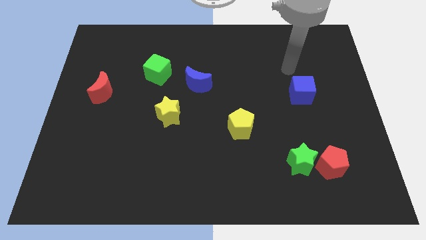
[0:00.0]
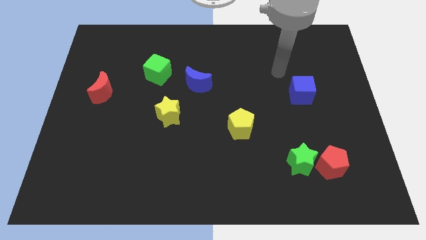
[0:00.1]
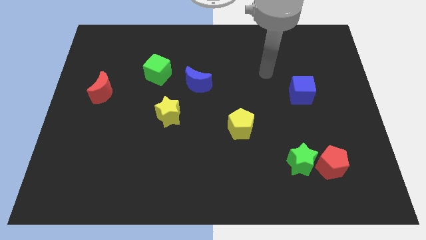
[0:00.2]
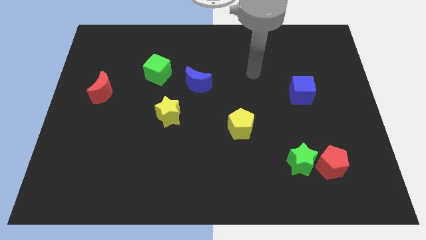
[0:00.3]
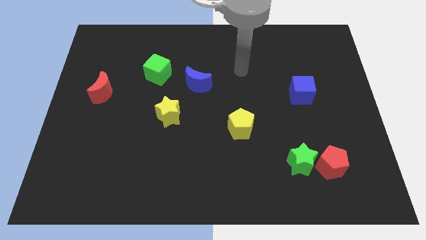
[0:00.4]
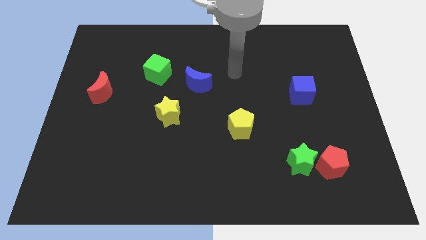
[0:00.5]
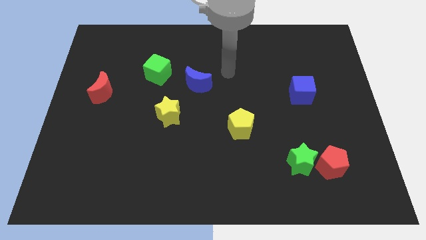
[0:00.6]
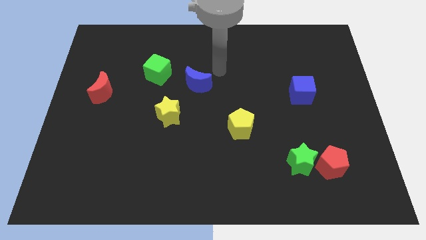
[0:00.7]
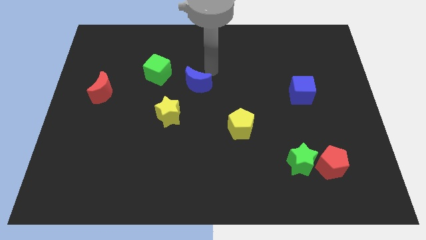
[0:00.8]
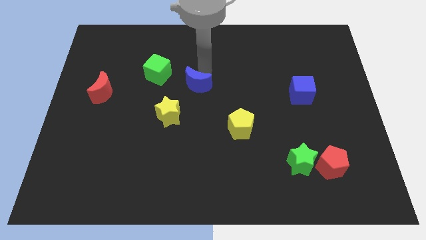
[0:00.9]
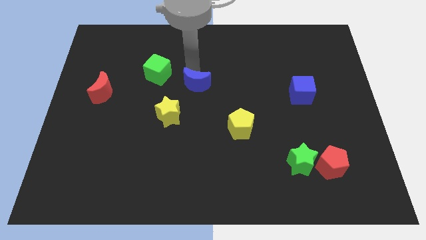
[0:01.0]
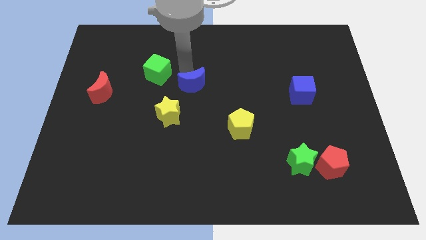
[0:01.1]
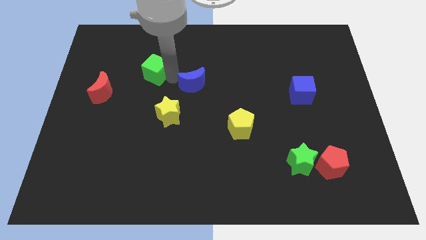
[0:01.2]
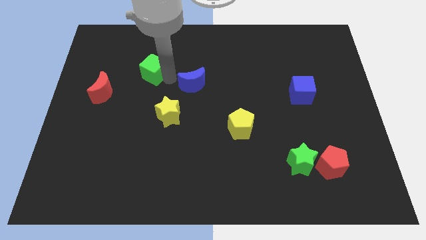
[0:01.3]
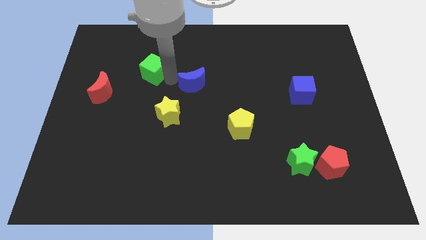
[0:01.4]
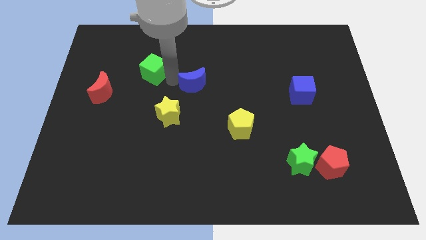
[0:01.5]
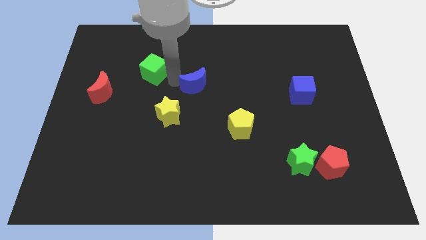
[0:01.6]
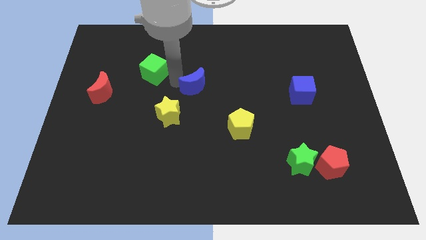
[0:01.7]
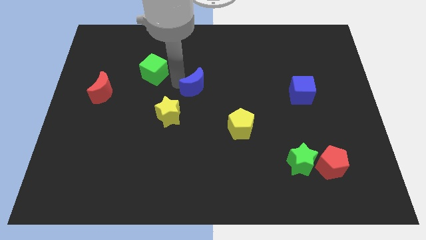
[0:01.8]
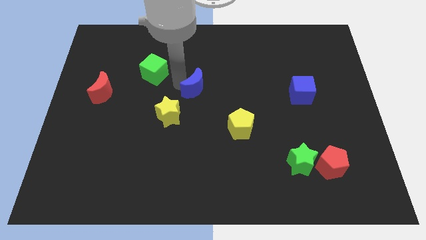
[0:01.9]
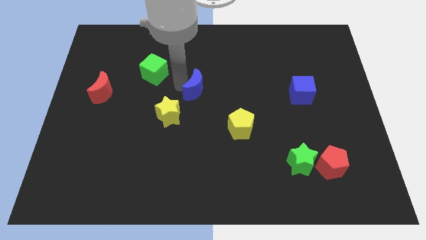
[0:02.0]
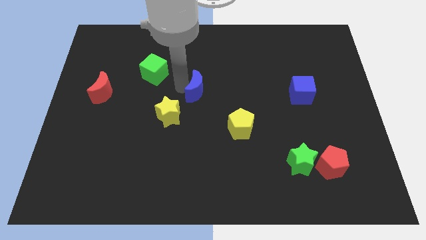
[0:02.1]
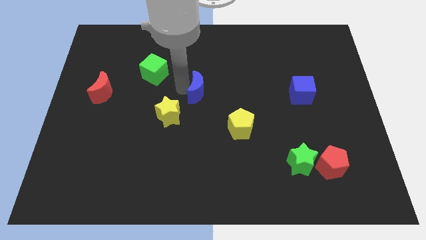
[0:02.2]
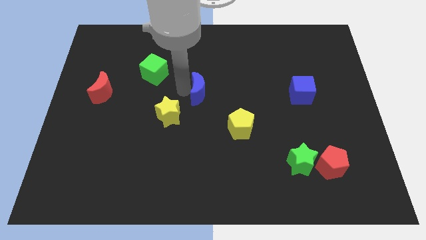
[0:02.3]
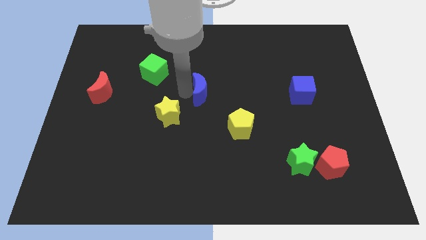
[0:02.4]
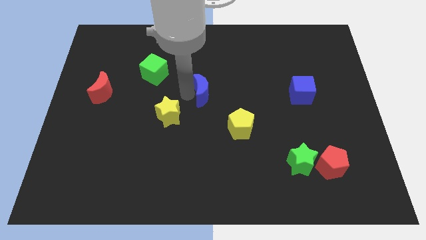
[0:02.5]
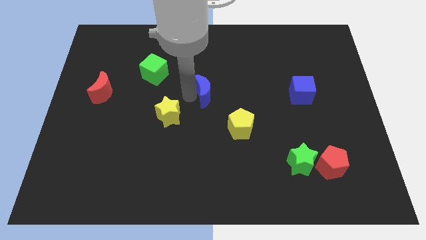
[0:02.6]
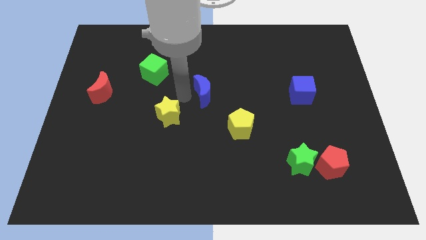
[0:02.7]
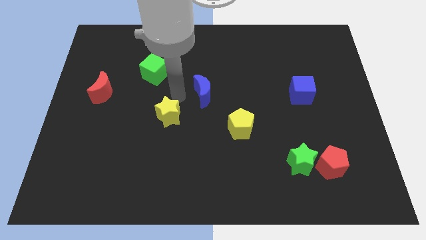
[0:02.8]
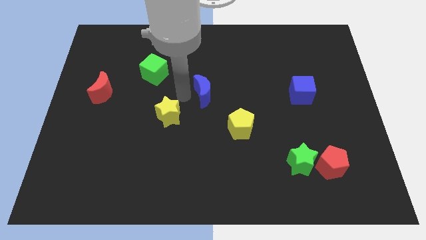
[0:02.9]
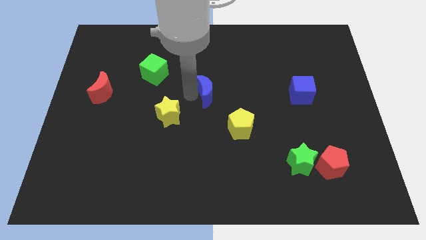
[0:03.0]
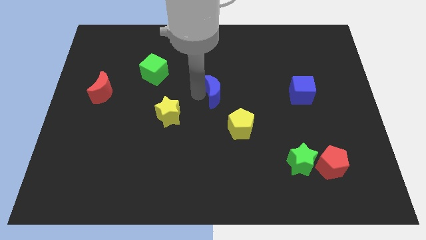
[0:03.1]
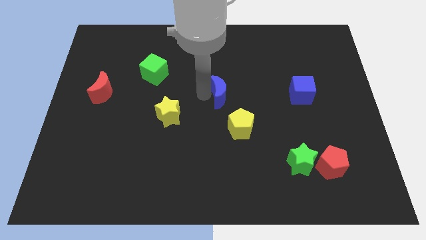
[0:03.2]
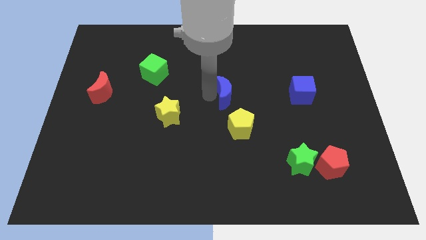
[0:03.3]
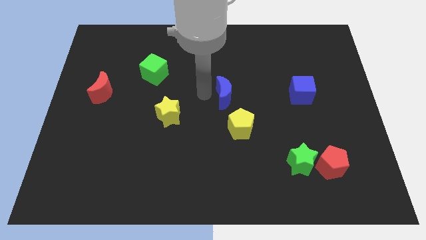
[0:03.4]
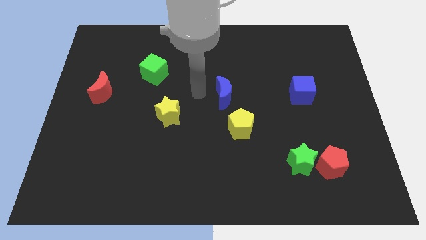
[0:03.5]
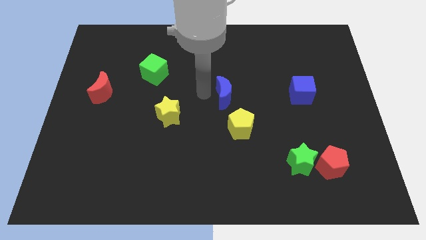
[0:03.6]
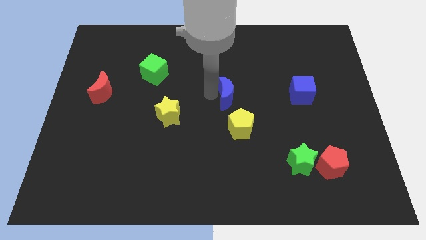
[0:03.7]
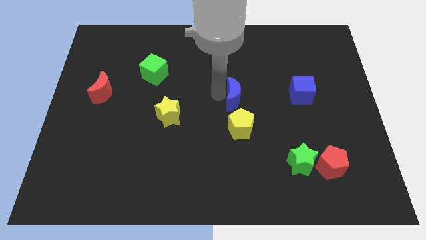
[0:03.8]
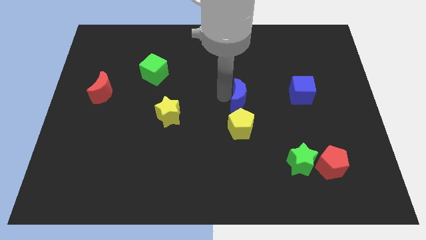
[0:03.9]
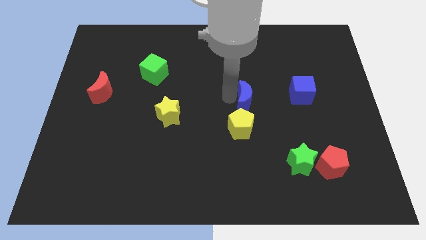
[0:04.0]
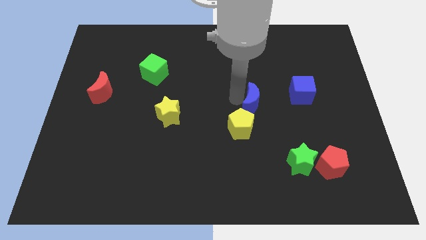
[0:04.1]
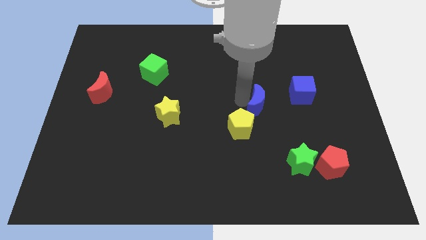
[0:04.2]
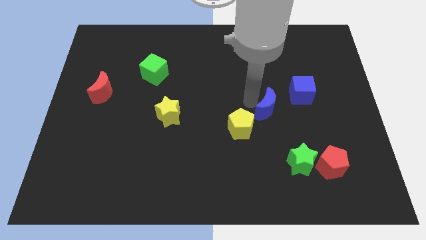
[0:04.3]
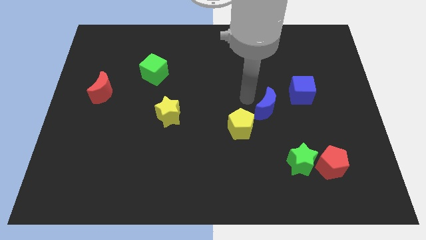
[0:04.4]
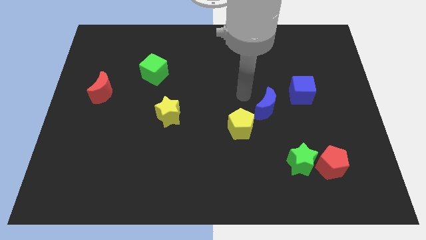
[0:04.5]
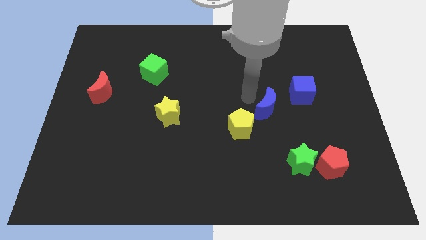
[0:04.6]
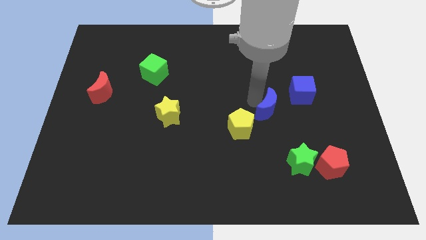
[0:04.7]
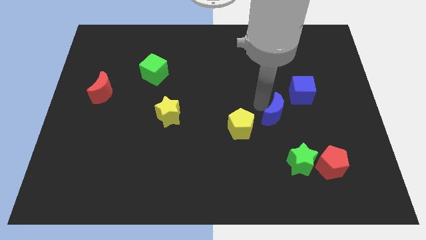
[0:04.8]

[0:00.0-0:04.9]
push the blue moon to the top of the green star

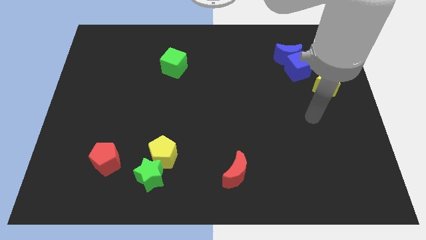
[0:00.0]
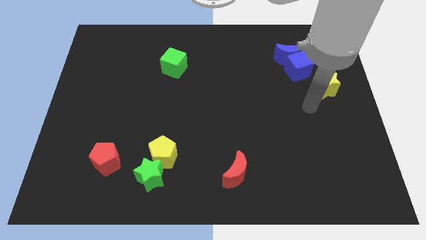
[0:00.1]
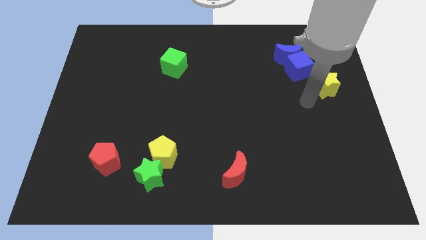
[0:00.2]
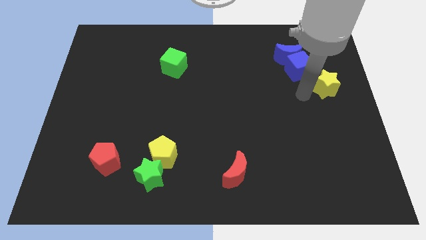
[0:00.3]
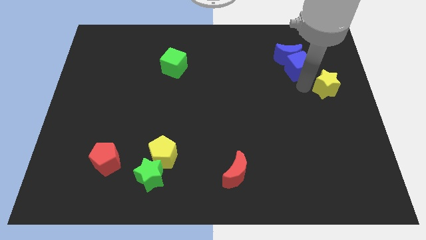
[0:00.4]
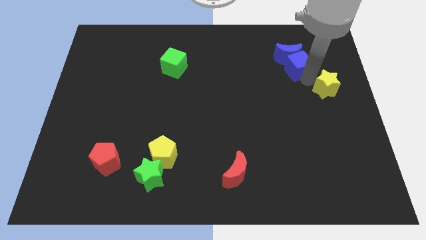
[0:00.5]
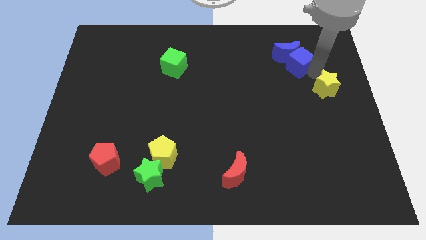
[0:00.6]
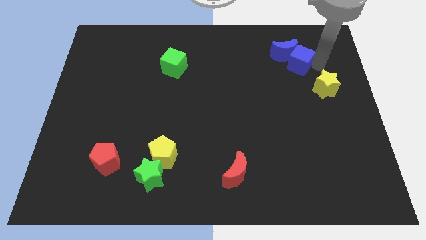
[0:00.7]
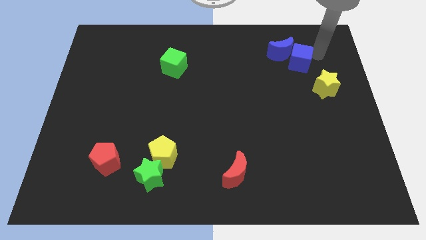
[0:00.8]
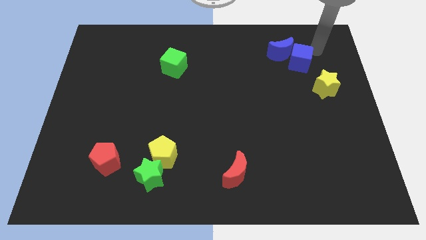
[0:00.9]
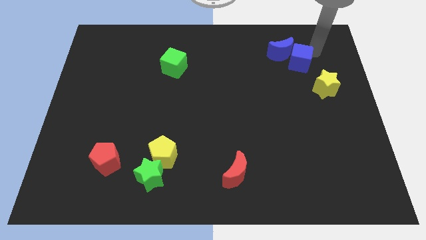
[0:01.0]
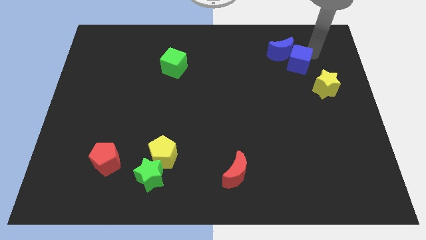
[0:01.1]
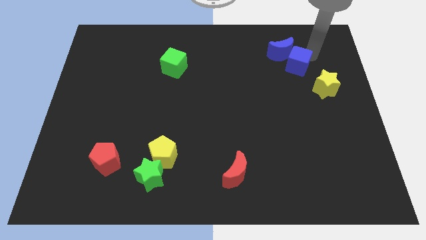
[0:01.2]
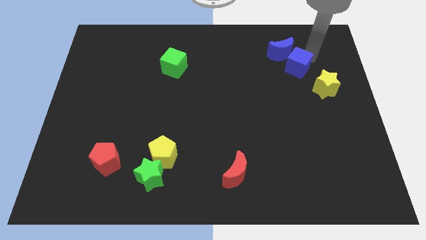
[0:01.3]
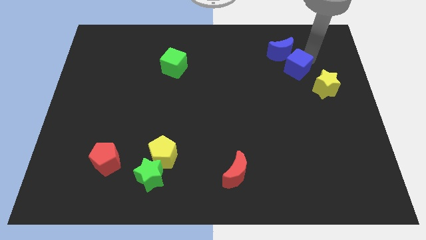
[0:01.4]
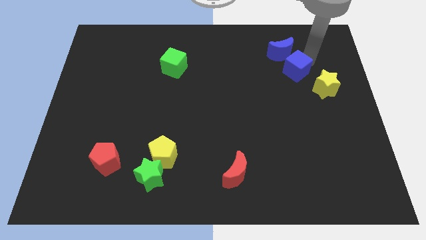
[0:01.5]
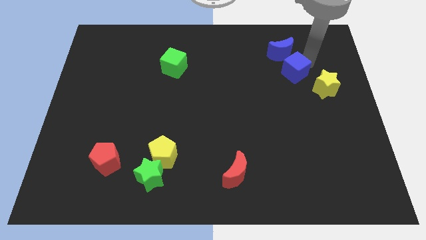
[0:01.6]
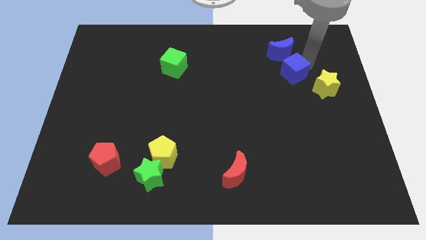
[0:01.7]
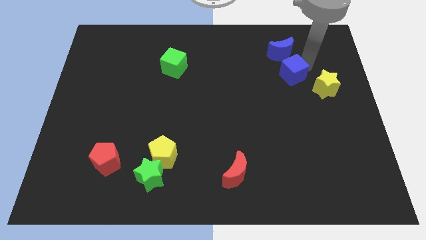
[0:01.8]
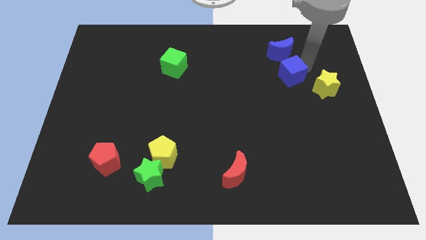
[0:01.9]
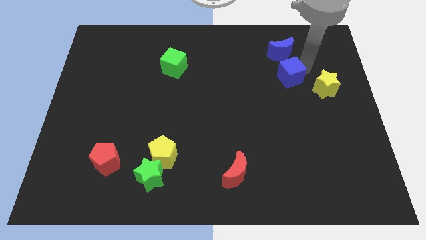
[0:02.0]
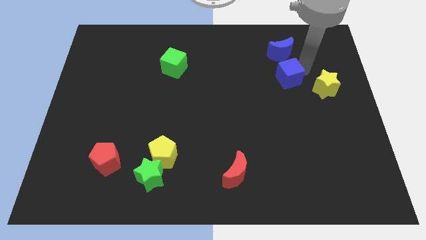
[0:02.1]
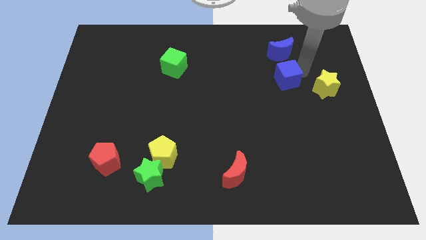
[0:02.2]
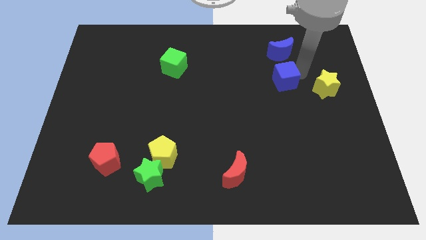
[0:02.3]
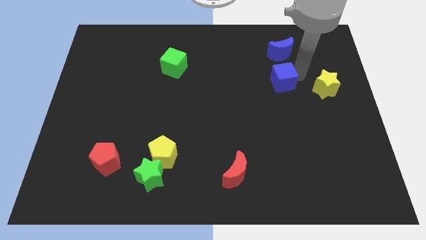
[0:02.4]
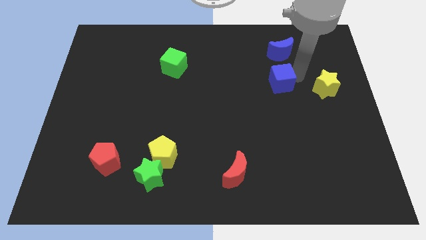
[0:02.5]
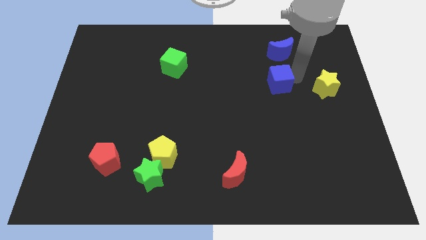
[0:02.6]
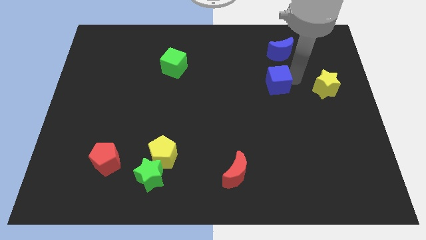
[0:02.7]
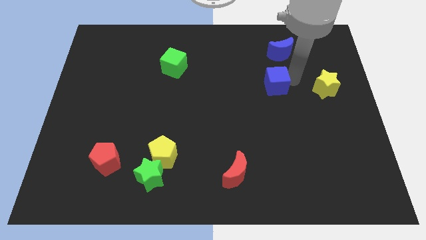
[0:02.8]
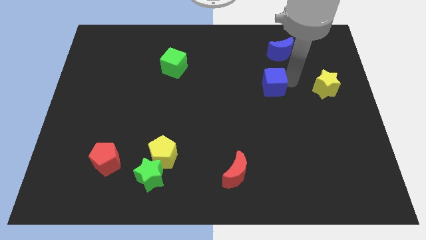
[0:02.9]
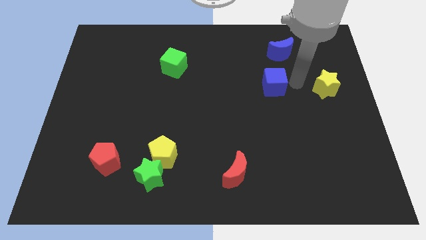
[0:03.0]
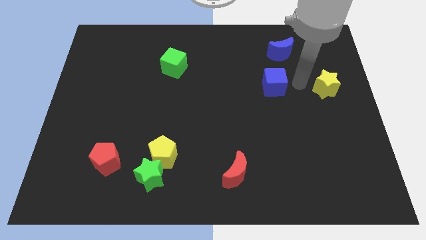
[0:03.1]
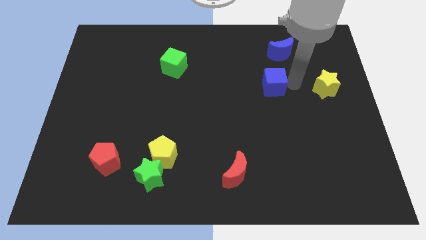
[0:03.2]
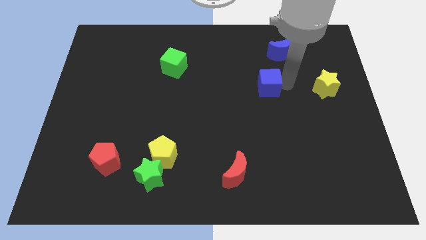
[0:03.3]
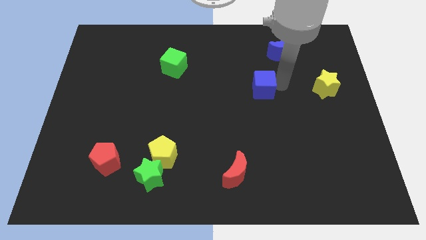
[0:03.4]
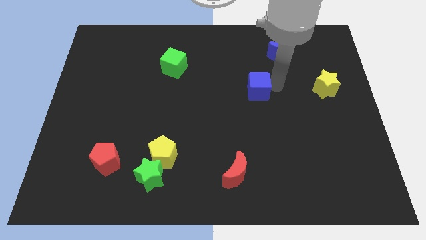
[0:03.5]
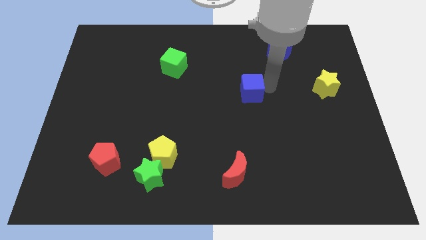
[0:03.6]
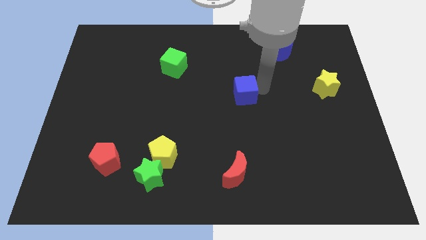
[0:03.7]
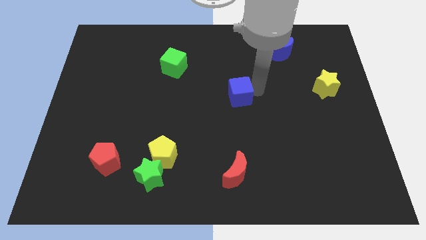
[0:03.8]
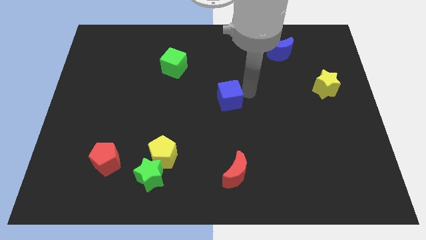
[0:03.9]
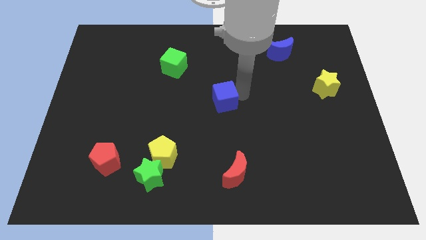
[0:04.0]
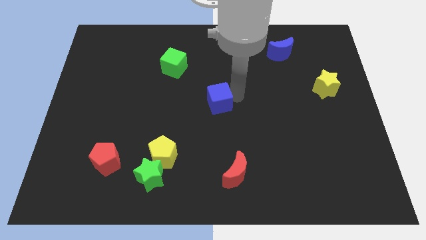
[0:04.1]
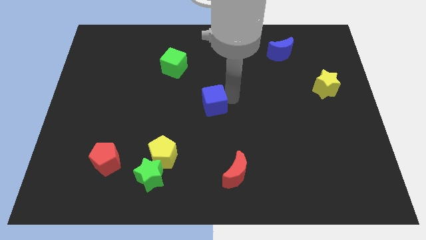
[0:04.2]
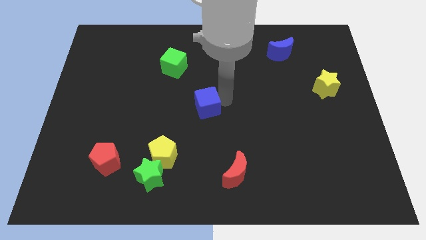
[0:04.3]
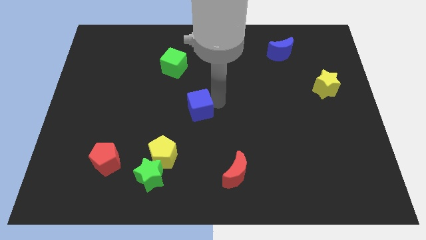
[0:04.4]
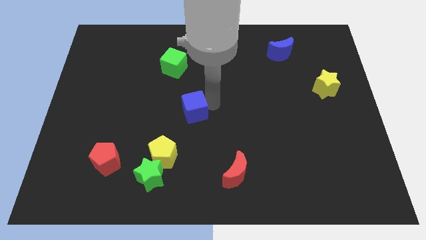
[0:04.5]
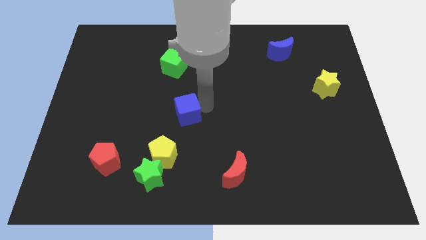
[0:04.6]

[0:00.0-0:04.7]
move the blue cube to the top side of the yellow pentagon
